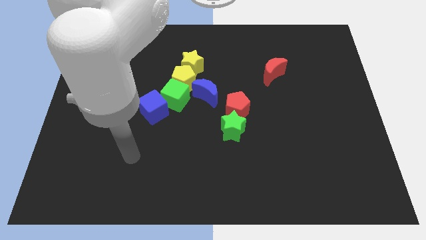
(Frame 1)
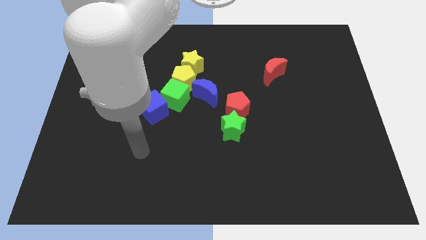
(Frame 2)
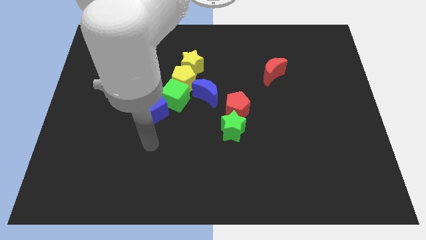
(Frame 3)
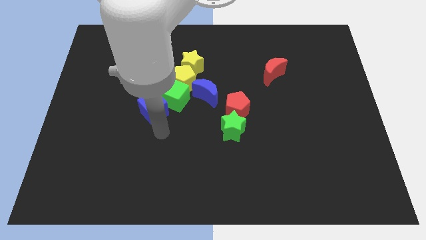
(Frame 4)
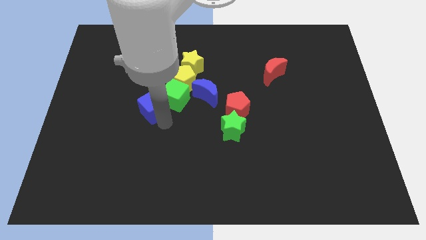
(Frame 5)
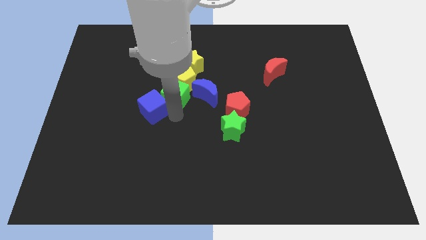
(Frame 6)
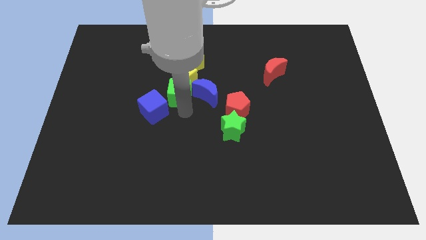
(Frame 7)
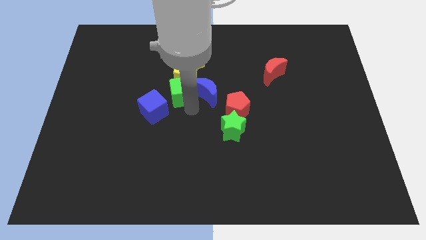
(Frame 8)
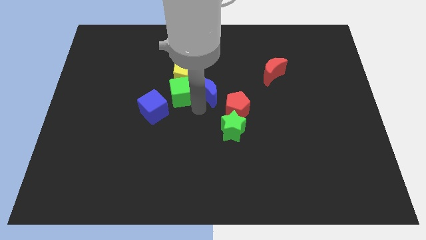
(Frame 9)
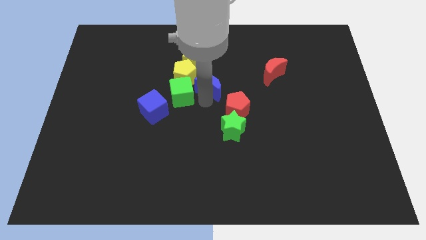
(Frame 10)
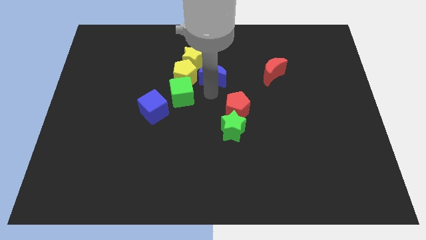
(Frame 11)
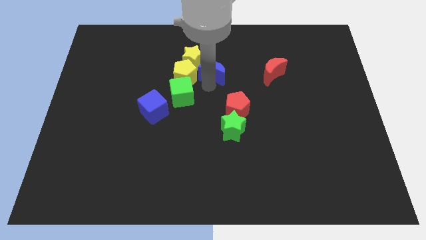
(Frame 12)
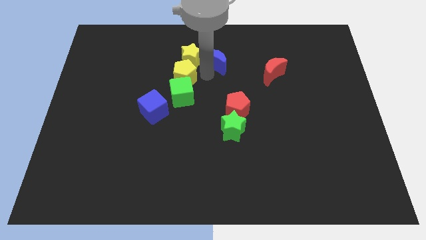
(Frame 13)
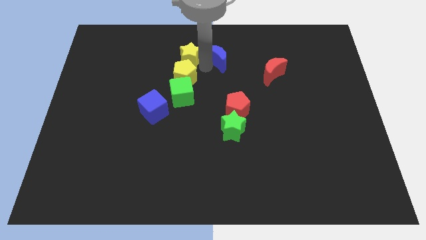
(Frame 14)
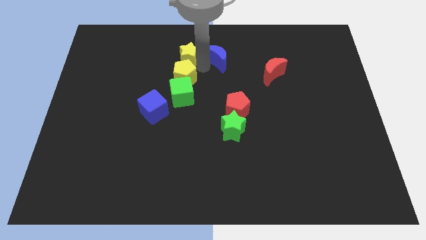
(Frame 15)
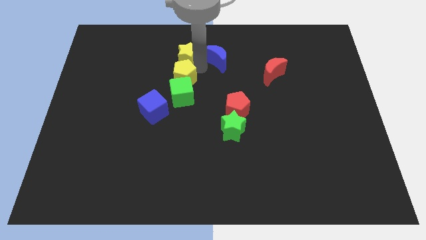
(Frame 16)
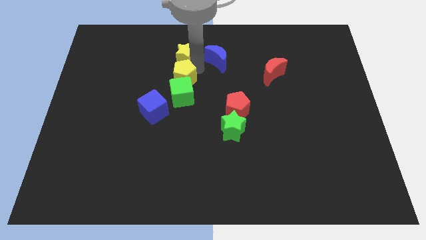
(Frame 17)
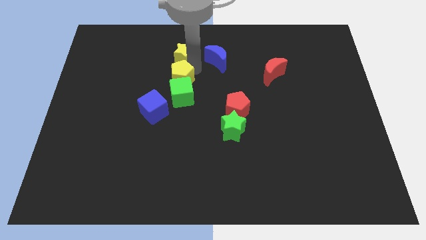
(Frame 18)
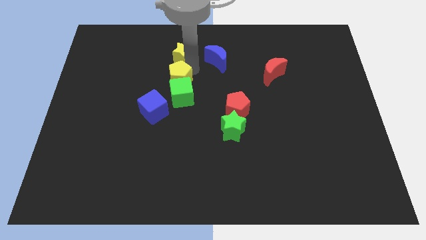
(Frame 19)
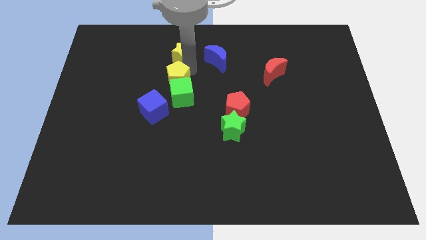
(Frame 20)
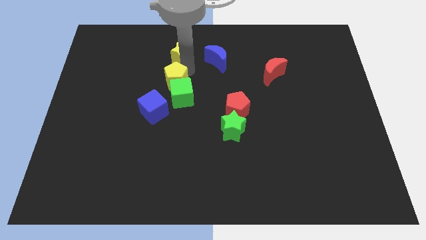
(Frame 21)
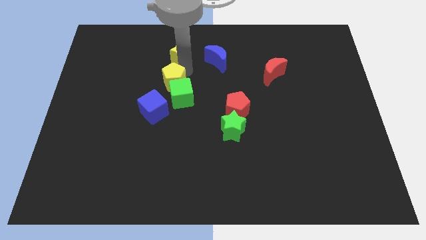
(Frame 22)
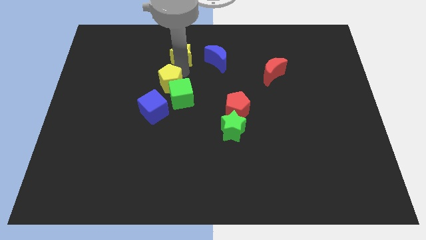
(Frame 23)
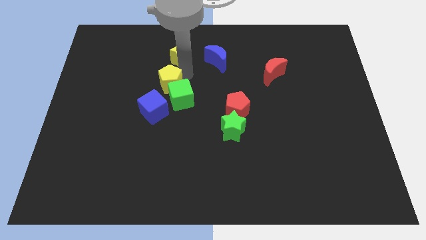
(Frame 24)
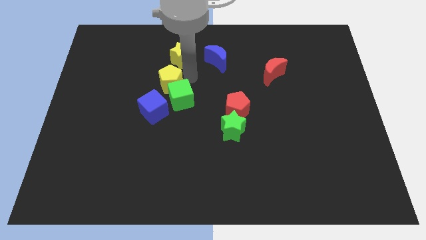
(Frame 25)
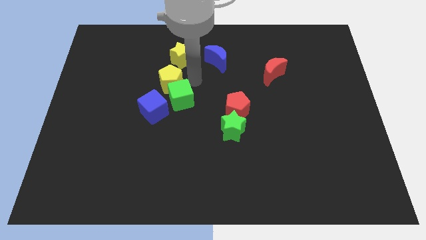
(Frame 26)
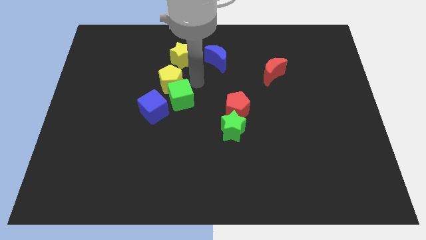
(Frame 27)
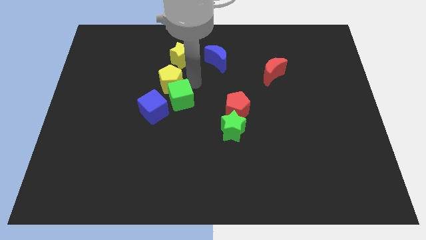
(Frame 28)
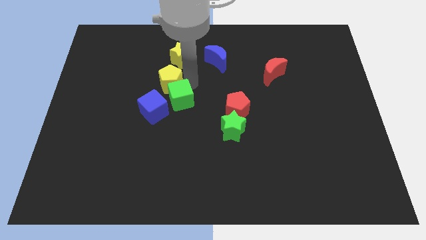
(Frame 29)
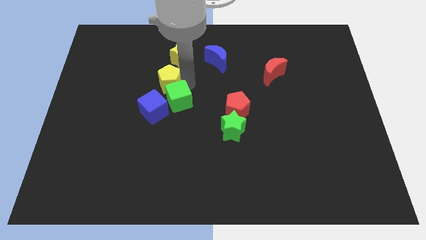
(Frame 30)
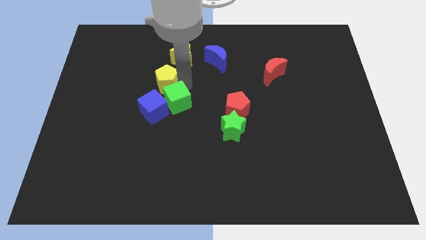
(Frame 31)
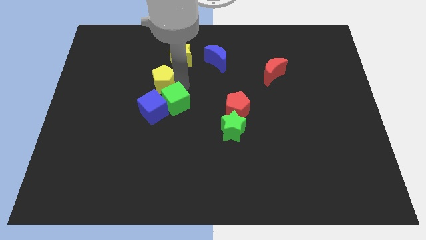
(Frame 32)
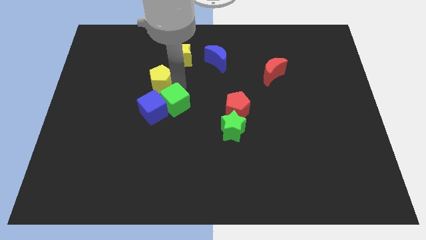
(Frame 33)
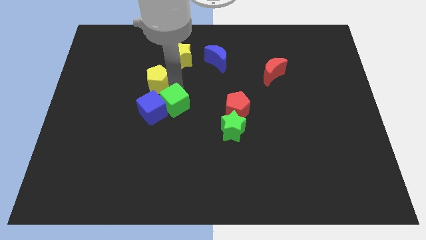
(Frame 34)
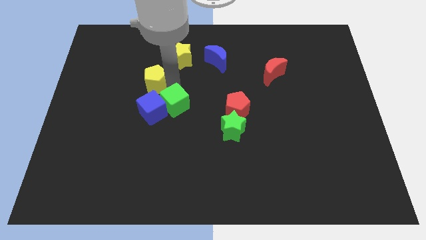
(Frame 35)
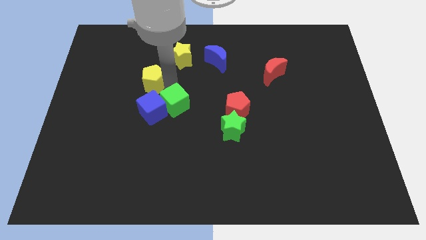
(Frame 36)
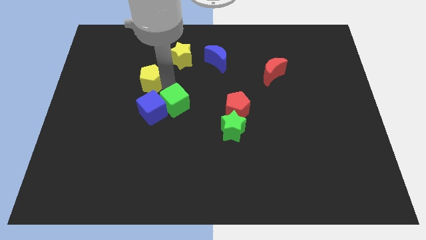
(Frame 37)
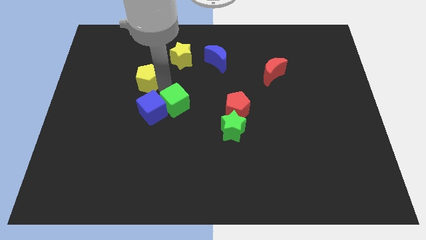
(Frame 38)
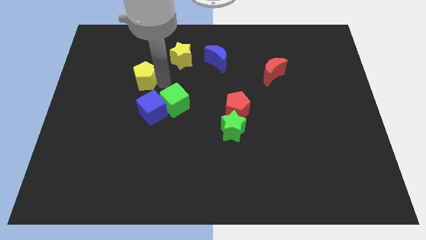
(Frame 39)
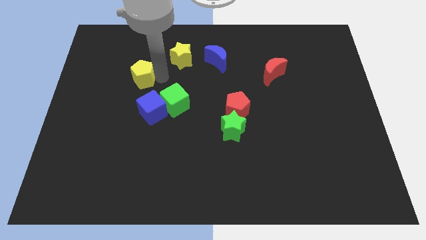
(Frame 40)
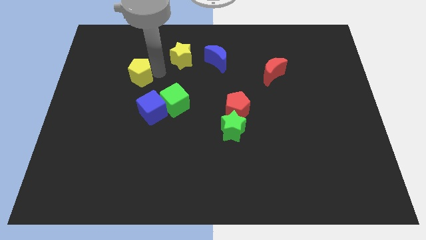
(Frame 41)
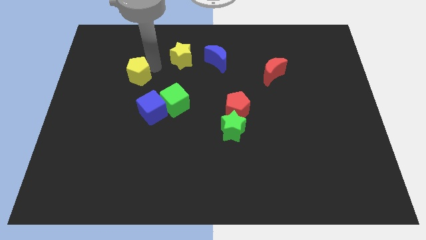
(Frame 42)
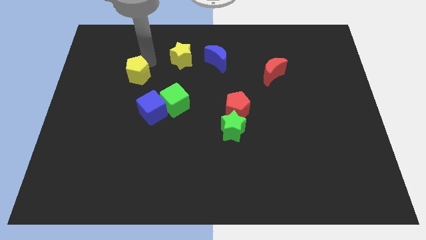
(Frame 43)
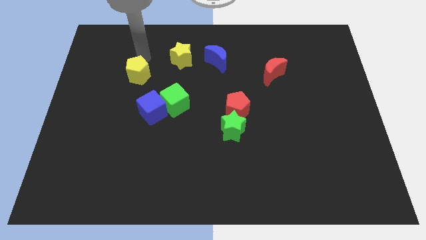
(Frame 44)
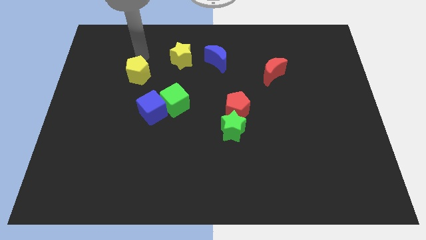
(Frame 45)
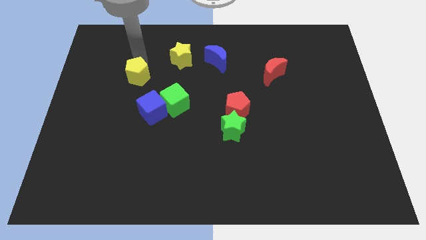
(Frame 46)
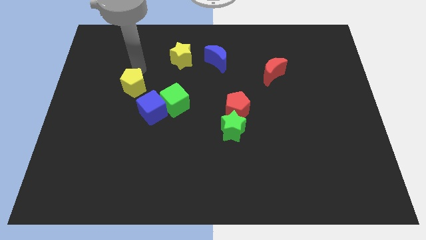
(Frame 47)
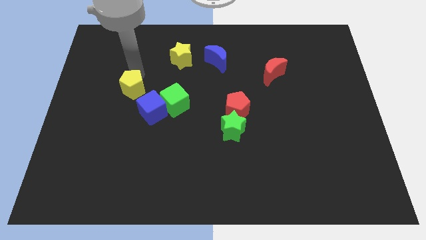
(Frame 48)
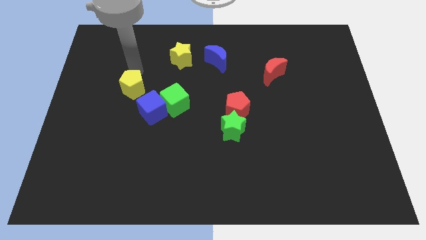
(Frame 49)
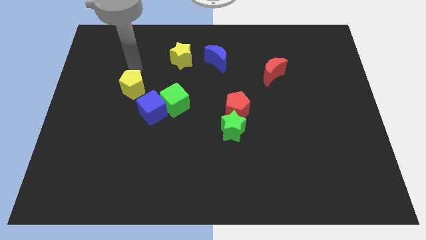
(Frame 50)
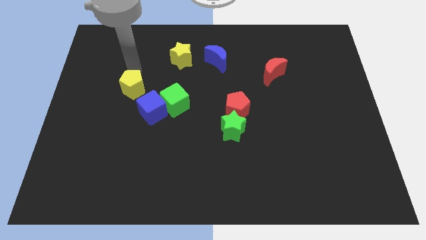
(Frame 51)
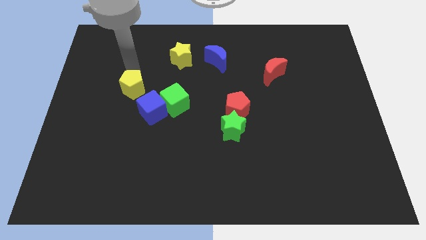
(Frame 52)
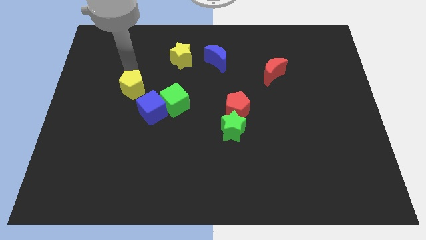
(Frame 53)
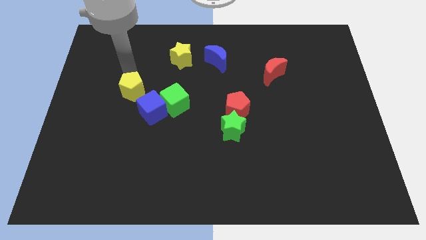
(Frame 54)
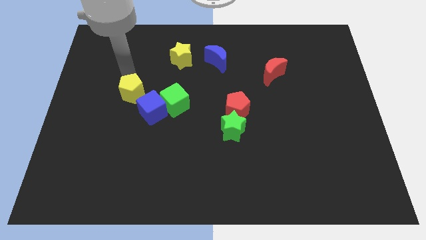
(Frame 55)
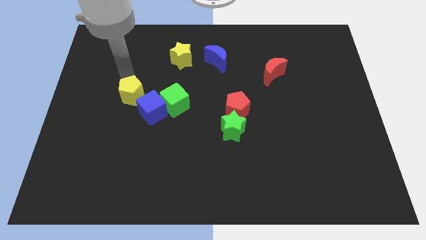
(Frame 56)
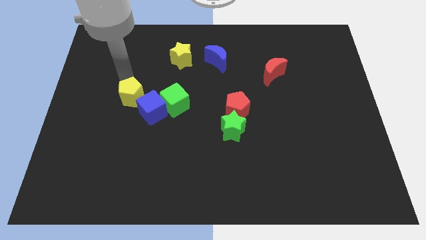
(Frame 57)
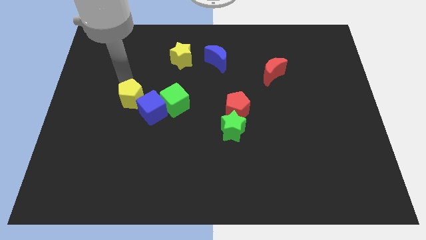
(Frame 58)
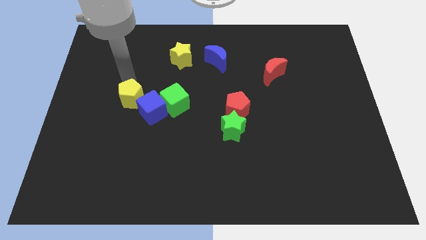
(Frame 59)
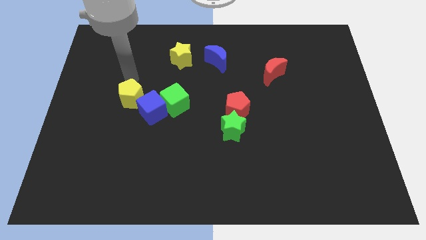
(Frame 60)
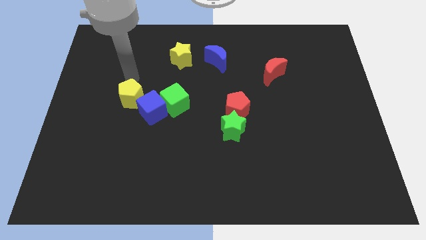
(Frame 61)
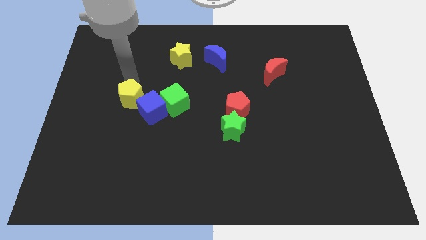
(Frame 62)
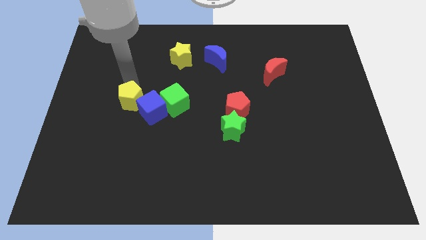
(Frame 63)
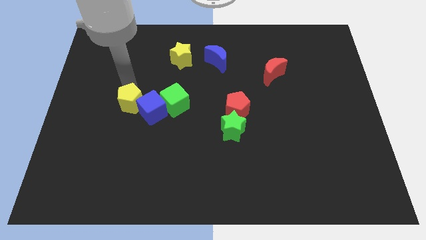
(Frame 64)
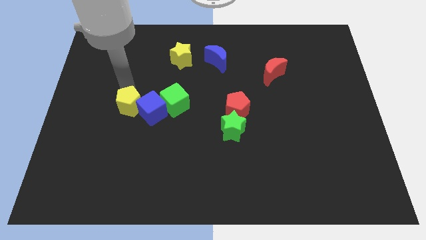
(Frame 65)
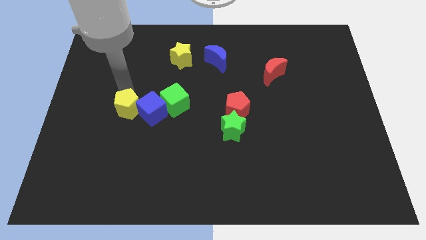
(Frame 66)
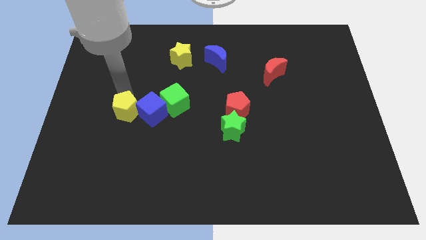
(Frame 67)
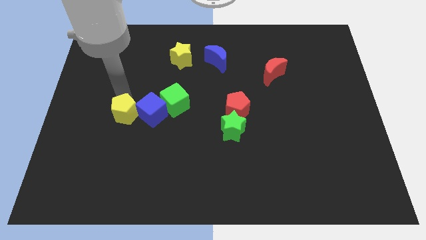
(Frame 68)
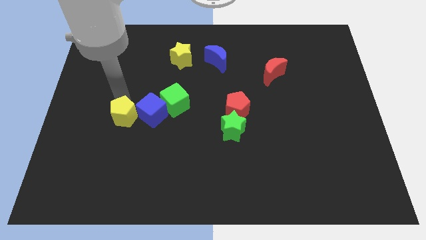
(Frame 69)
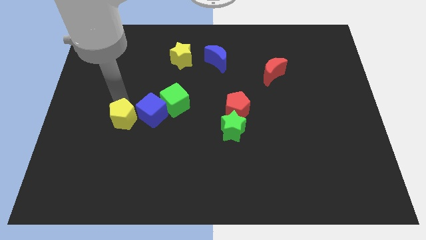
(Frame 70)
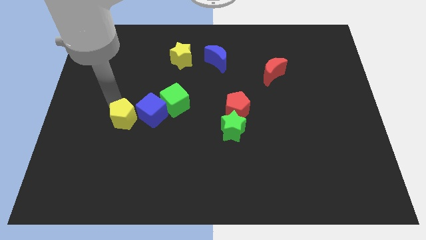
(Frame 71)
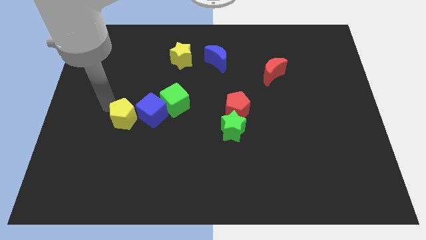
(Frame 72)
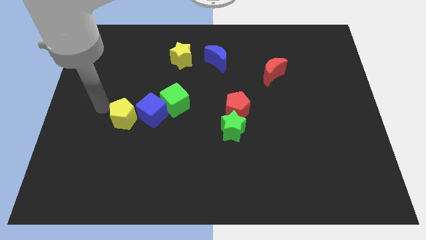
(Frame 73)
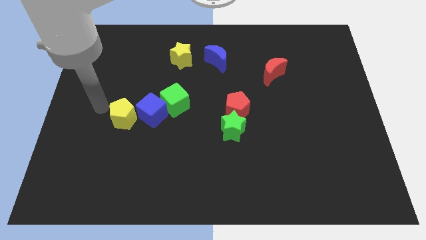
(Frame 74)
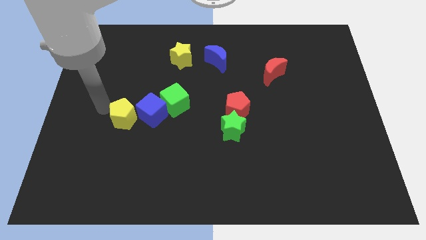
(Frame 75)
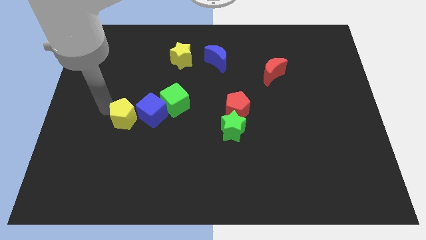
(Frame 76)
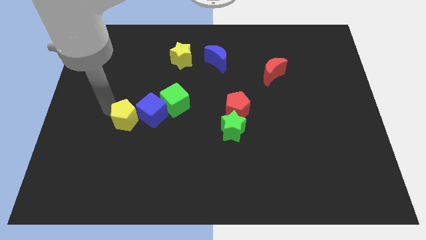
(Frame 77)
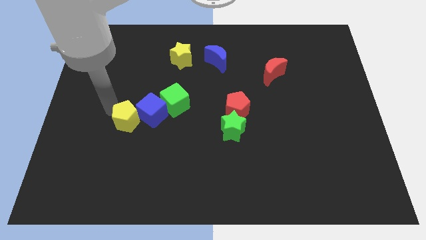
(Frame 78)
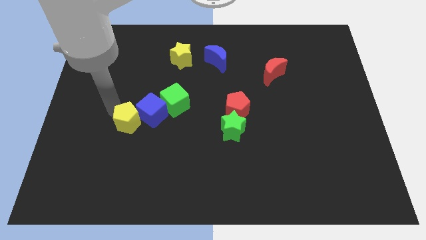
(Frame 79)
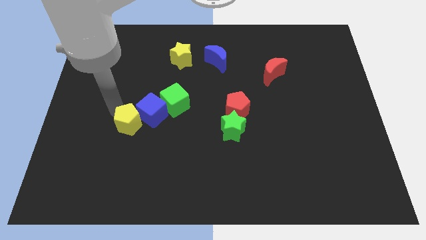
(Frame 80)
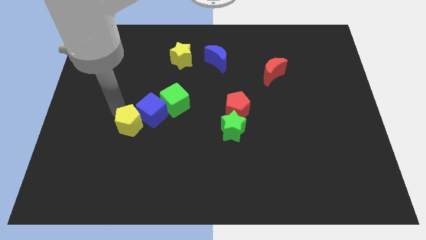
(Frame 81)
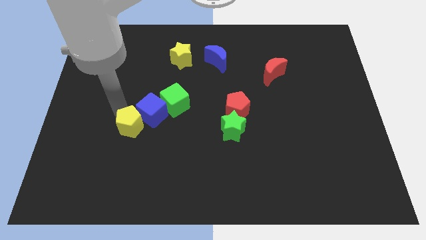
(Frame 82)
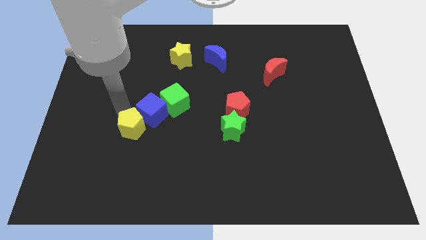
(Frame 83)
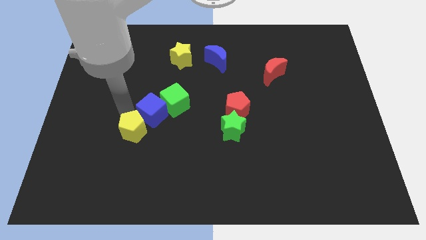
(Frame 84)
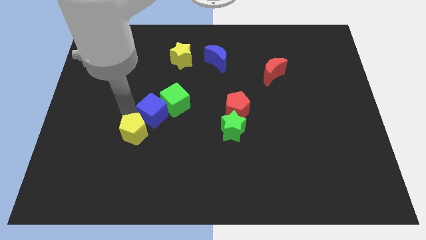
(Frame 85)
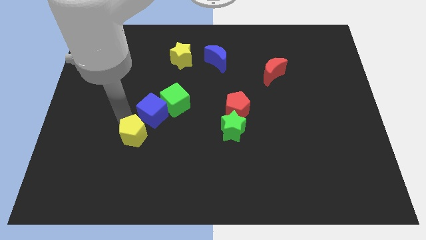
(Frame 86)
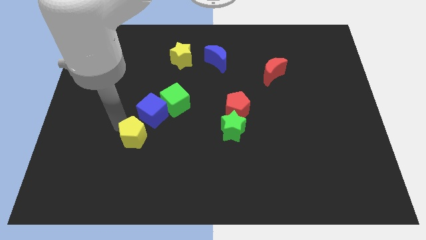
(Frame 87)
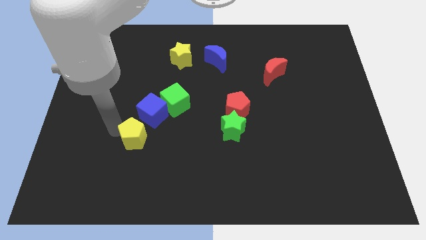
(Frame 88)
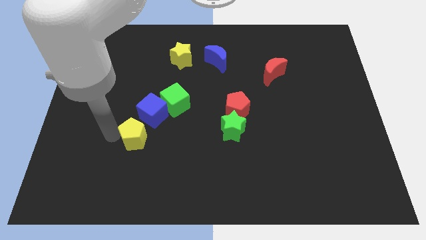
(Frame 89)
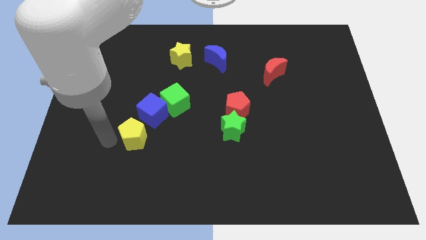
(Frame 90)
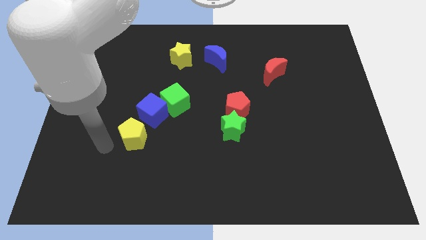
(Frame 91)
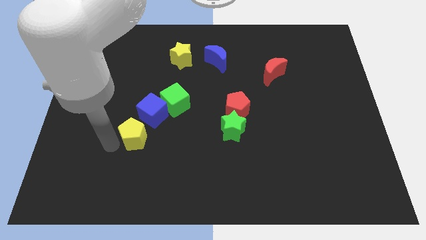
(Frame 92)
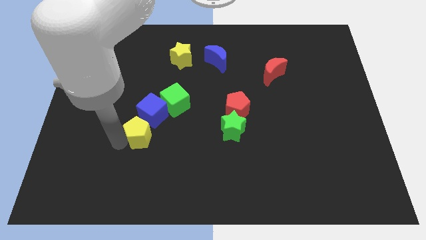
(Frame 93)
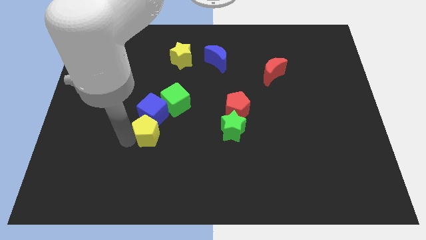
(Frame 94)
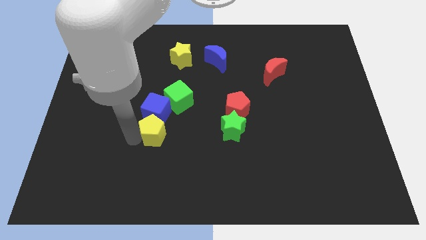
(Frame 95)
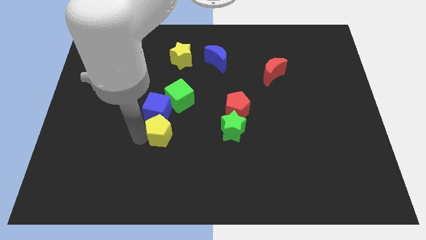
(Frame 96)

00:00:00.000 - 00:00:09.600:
push the yellow pentagon just left of the green star
